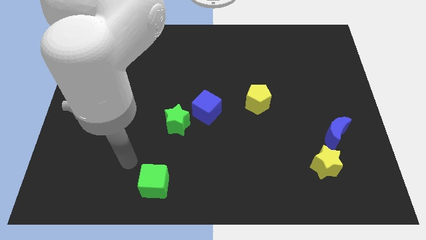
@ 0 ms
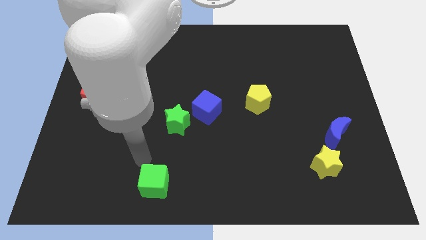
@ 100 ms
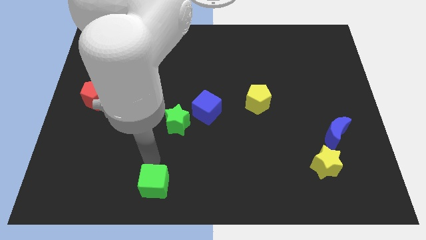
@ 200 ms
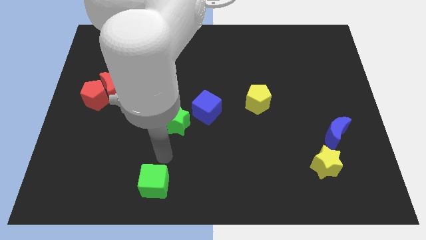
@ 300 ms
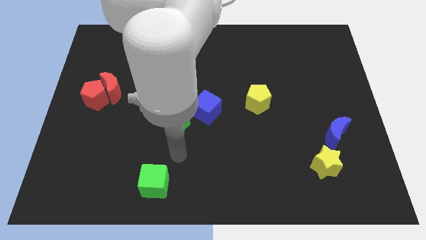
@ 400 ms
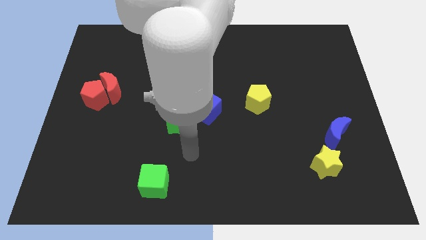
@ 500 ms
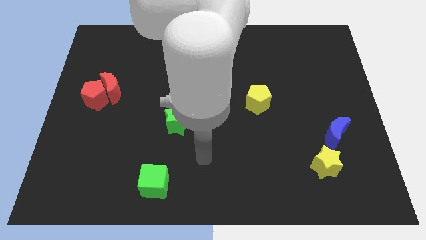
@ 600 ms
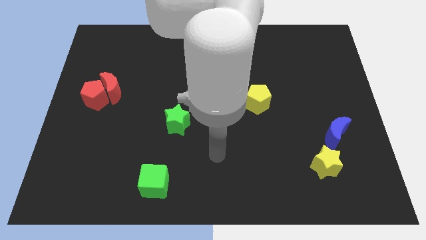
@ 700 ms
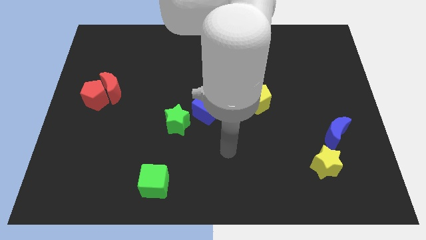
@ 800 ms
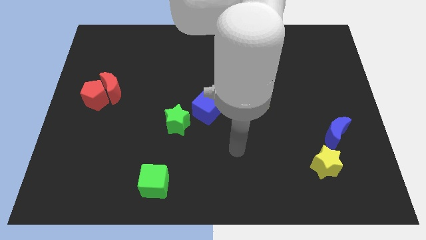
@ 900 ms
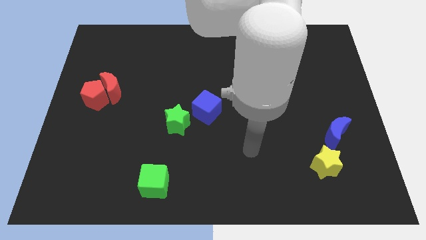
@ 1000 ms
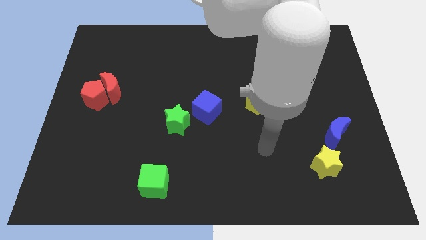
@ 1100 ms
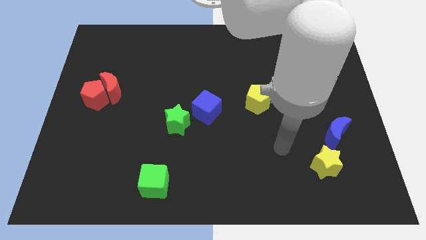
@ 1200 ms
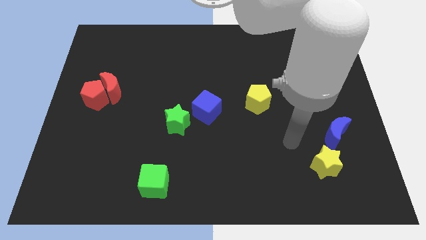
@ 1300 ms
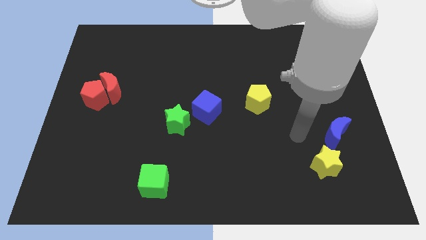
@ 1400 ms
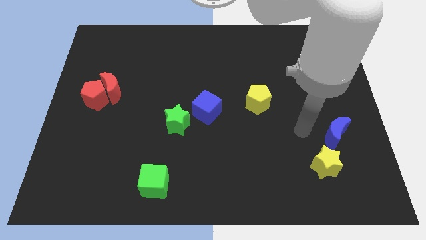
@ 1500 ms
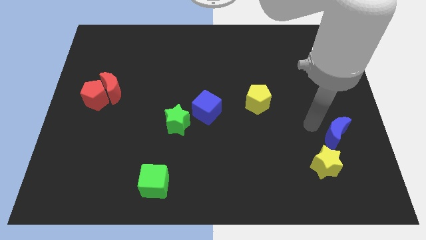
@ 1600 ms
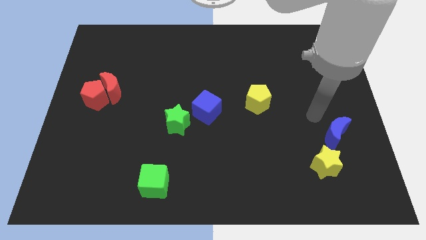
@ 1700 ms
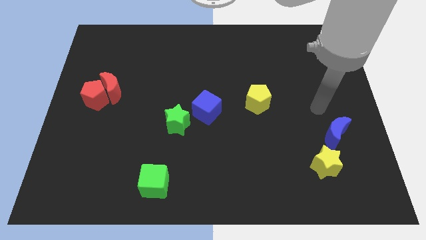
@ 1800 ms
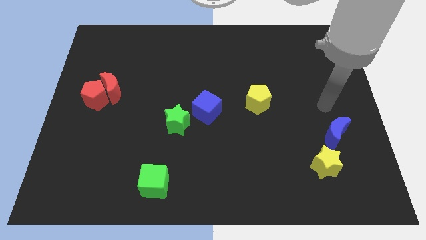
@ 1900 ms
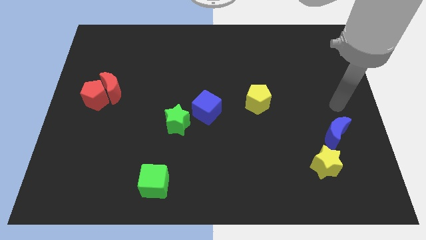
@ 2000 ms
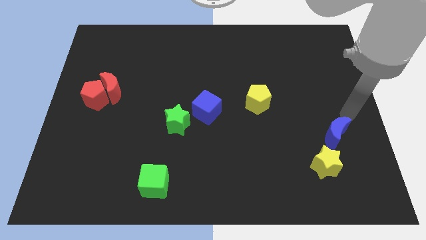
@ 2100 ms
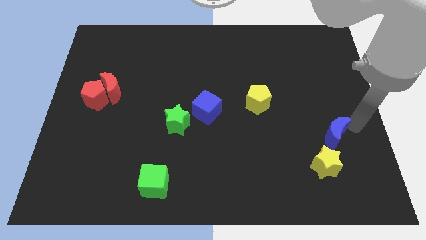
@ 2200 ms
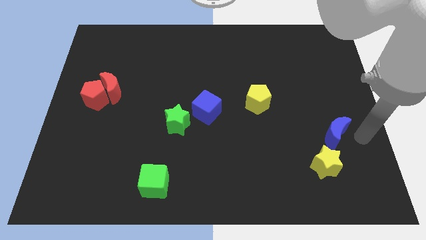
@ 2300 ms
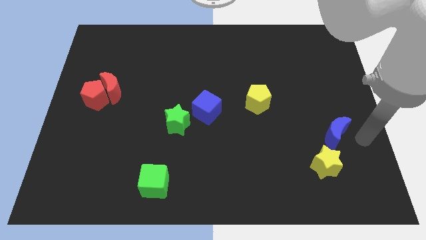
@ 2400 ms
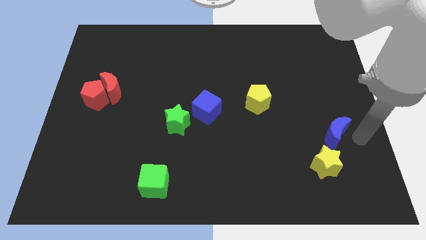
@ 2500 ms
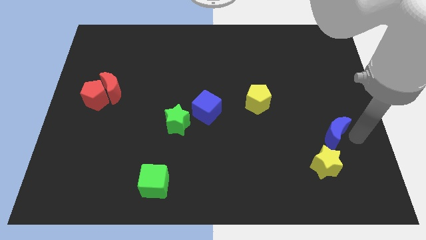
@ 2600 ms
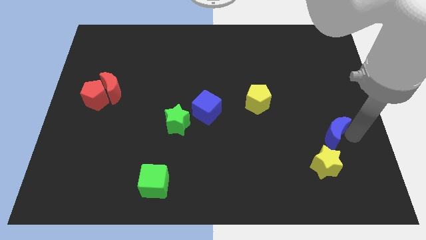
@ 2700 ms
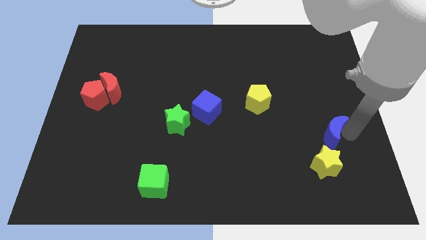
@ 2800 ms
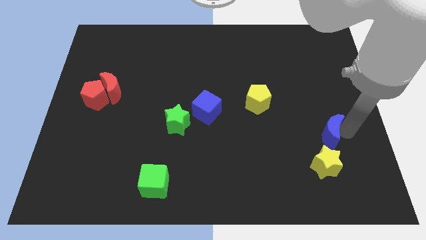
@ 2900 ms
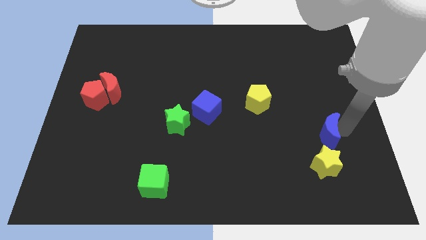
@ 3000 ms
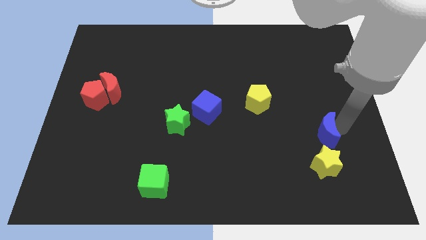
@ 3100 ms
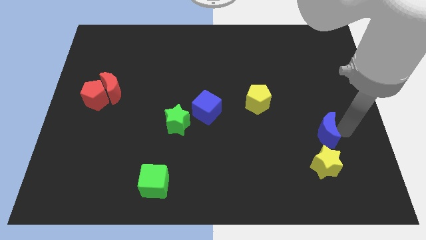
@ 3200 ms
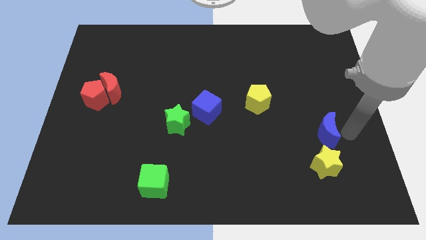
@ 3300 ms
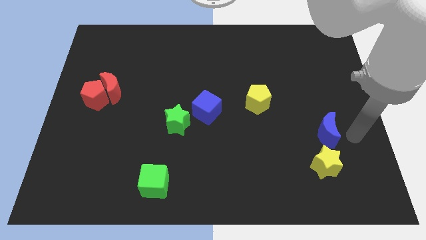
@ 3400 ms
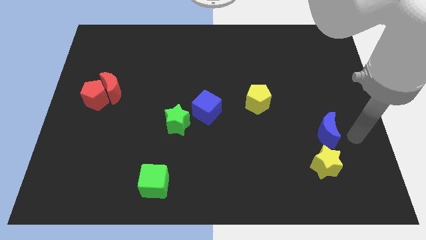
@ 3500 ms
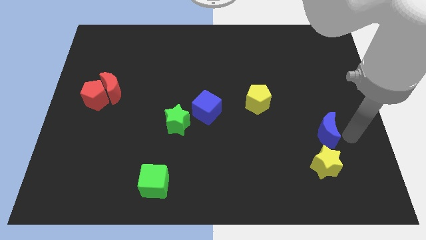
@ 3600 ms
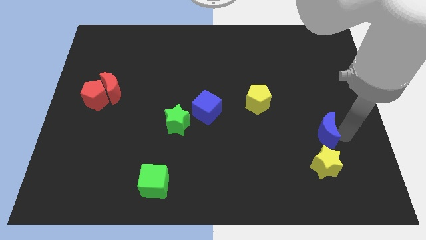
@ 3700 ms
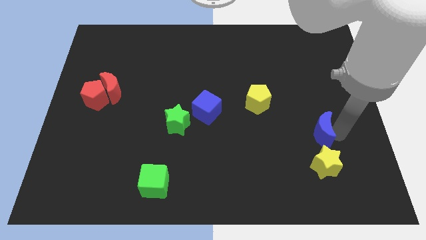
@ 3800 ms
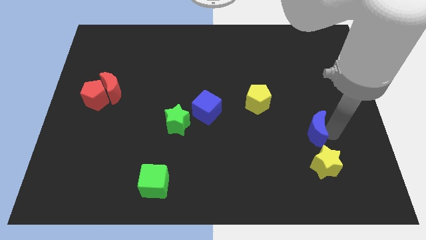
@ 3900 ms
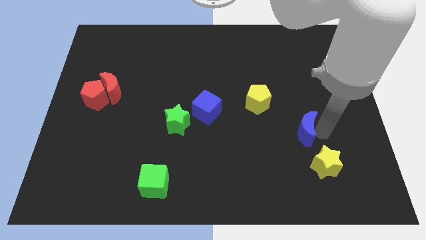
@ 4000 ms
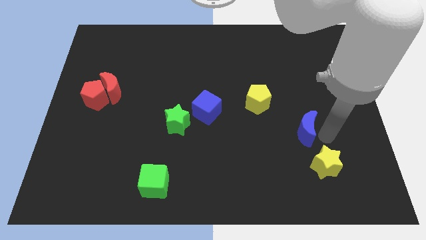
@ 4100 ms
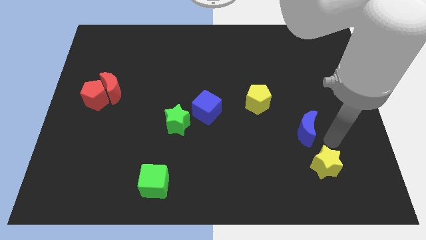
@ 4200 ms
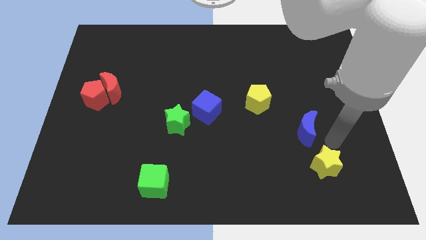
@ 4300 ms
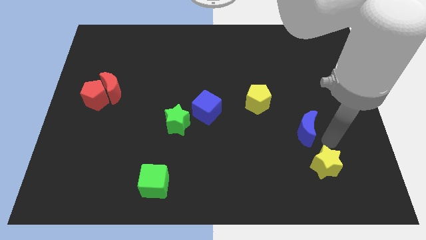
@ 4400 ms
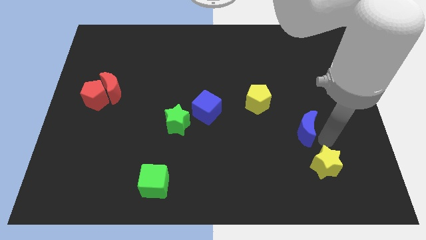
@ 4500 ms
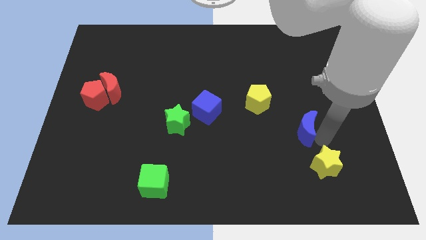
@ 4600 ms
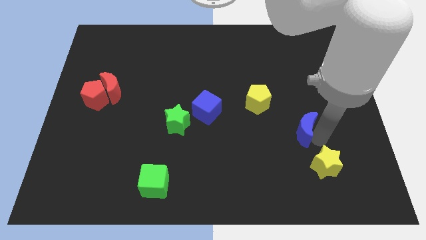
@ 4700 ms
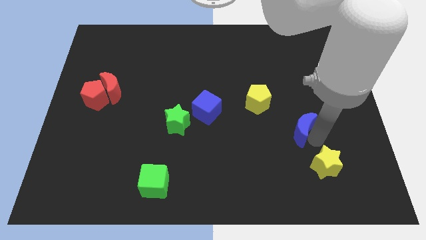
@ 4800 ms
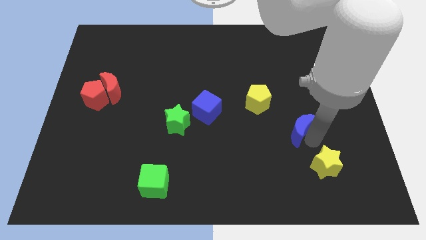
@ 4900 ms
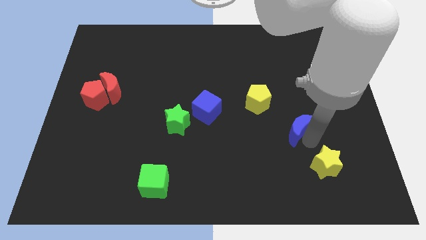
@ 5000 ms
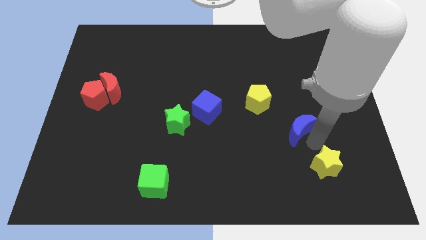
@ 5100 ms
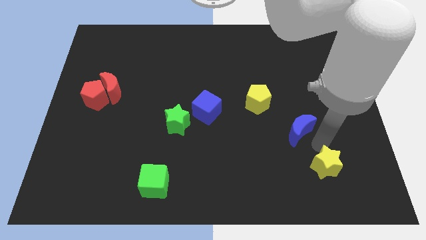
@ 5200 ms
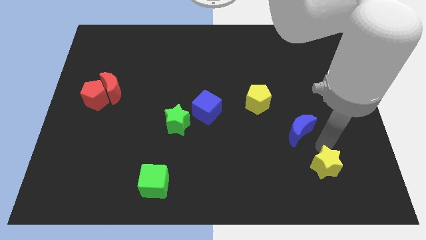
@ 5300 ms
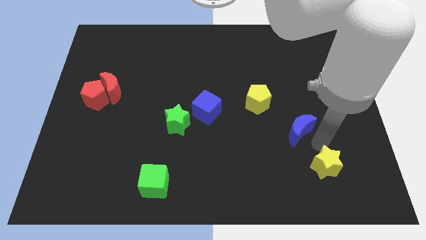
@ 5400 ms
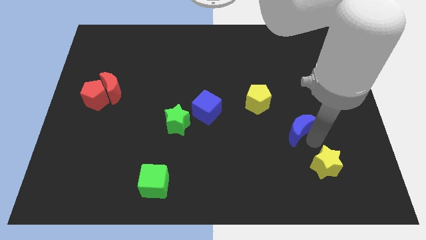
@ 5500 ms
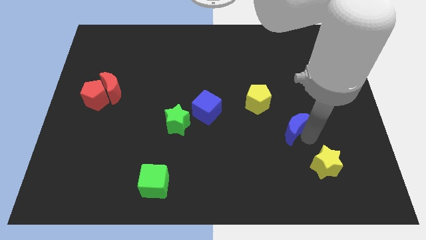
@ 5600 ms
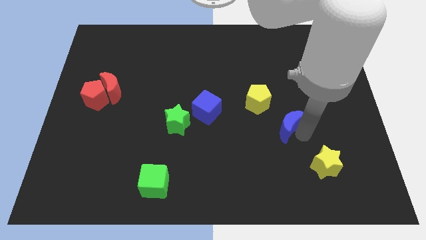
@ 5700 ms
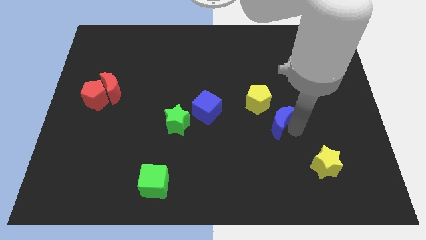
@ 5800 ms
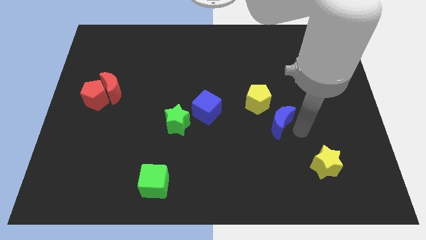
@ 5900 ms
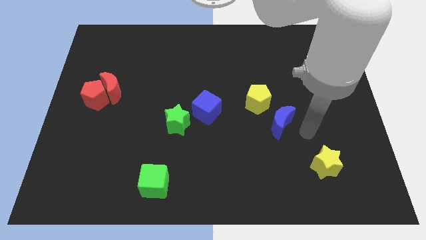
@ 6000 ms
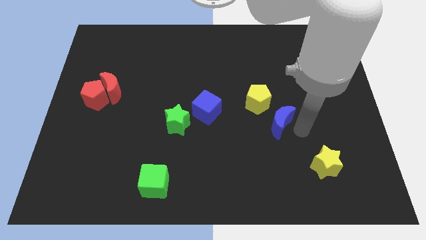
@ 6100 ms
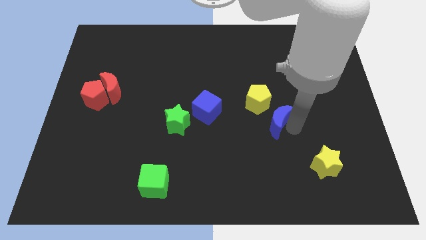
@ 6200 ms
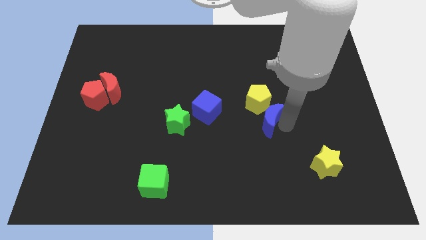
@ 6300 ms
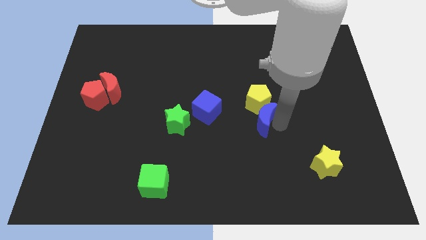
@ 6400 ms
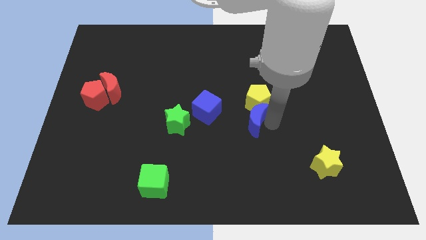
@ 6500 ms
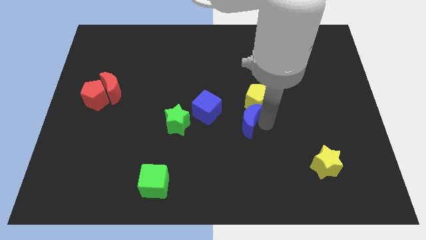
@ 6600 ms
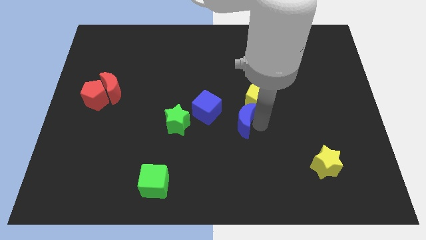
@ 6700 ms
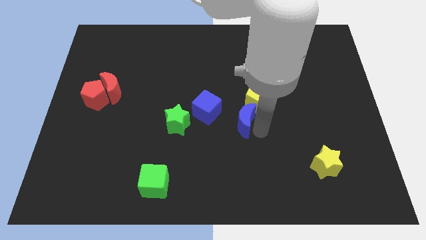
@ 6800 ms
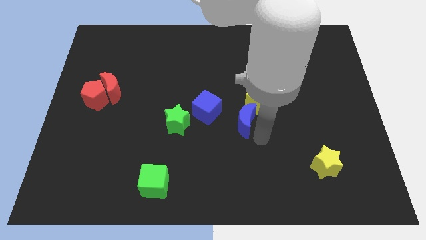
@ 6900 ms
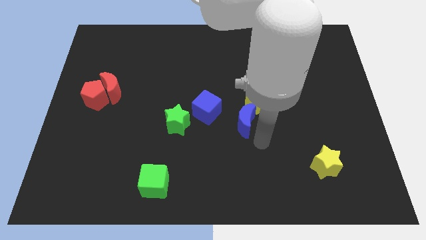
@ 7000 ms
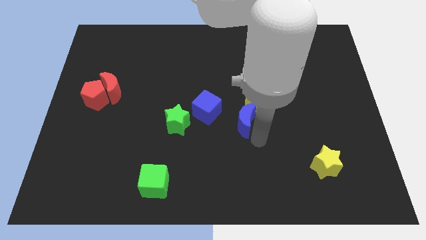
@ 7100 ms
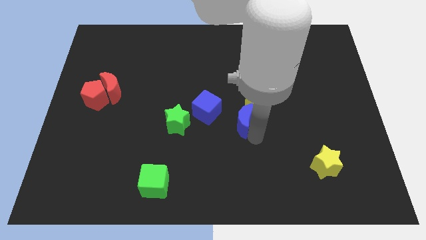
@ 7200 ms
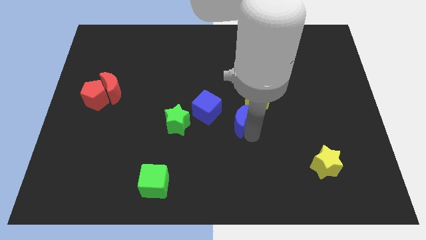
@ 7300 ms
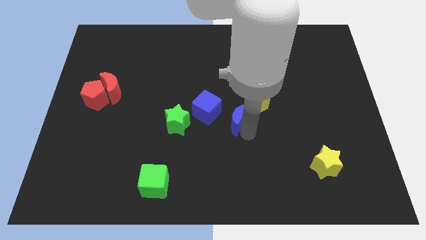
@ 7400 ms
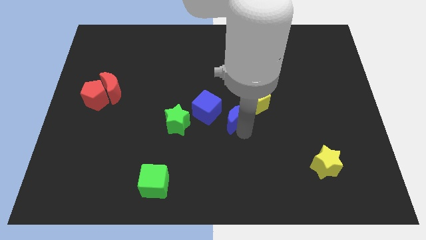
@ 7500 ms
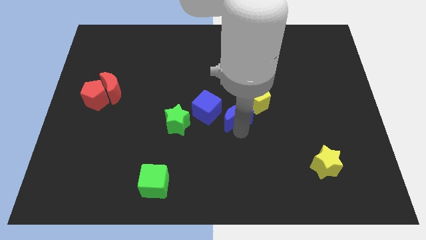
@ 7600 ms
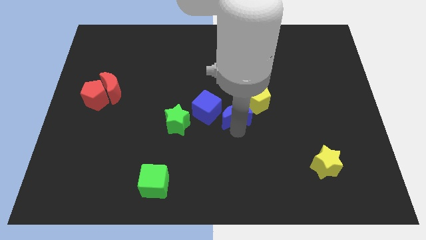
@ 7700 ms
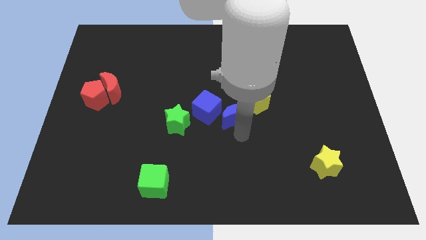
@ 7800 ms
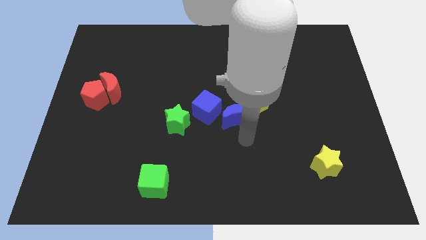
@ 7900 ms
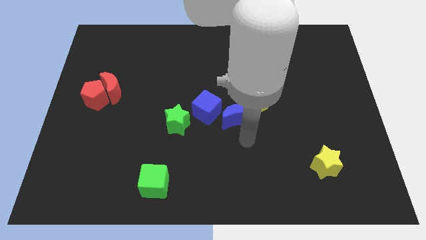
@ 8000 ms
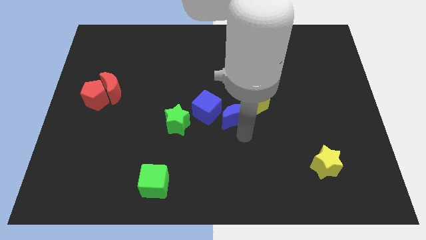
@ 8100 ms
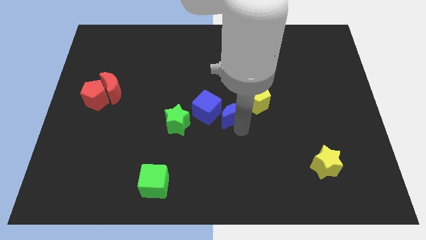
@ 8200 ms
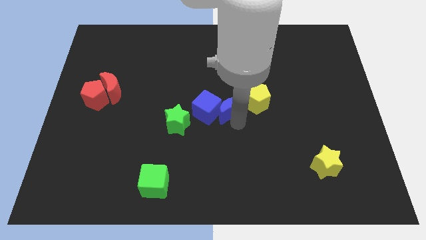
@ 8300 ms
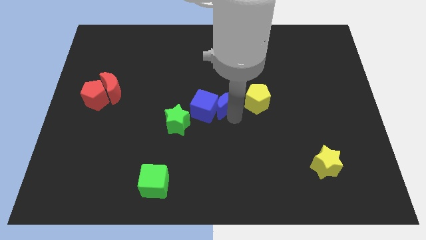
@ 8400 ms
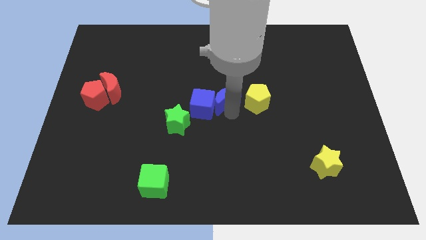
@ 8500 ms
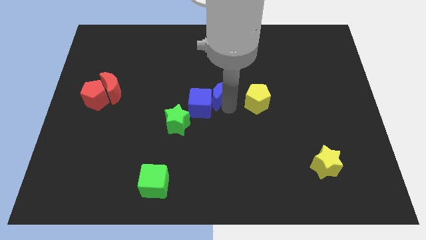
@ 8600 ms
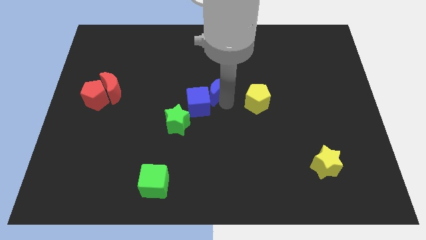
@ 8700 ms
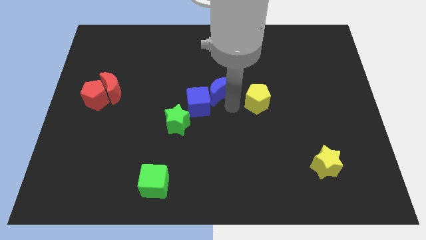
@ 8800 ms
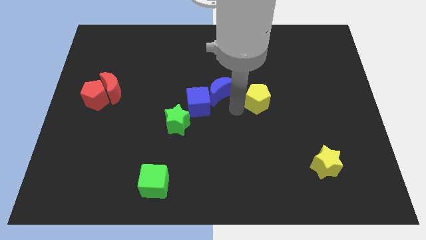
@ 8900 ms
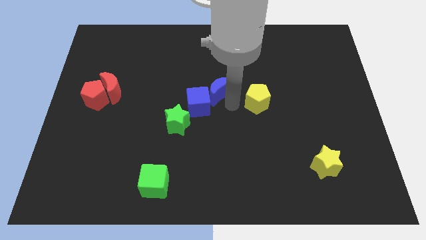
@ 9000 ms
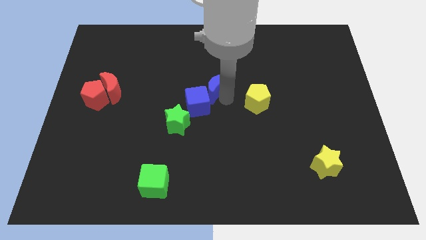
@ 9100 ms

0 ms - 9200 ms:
push the blue moon to the top of the blue cube
